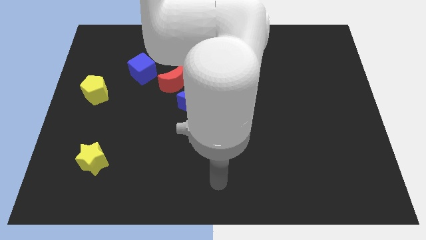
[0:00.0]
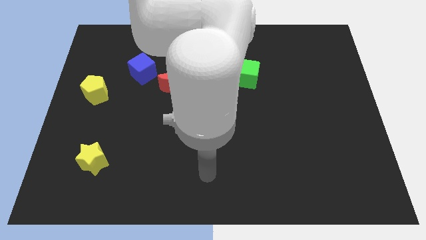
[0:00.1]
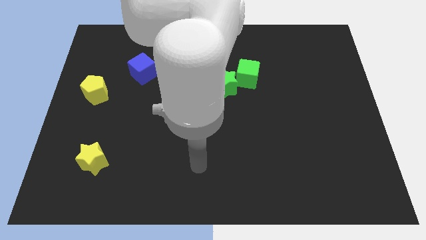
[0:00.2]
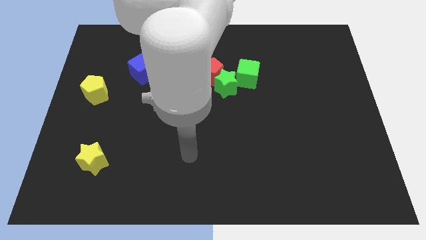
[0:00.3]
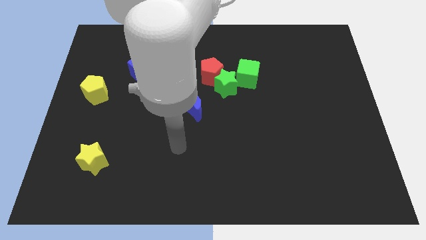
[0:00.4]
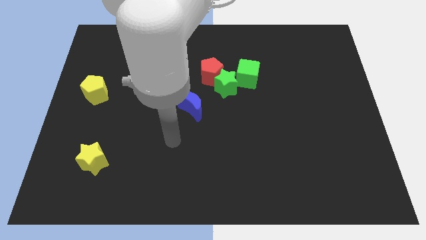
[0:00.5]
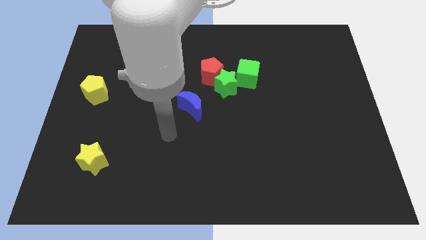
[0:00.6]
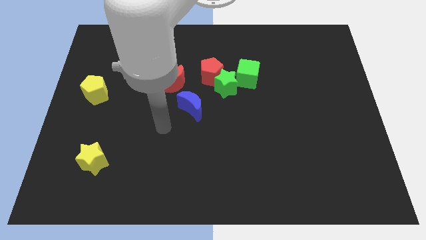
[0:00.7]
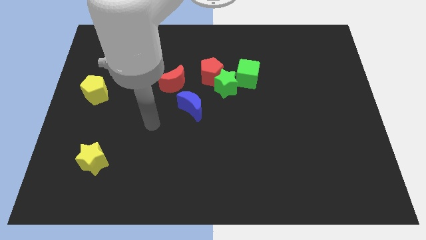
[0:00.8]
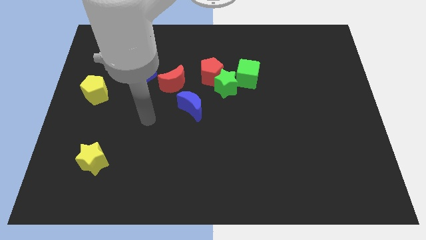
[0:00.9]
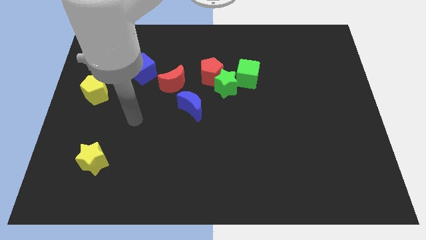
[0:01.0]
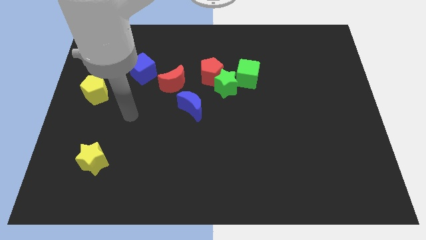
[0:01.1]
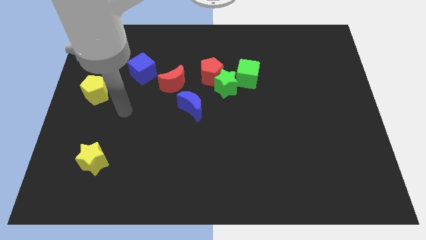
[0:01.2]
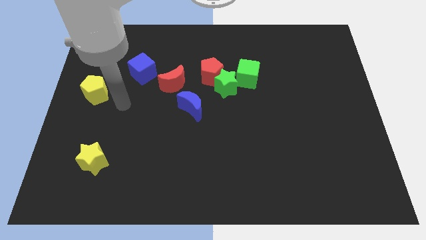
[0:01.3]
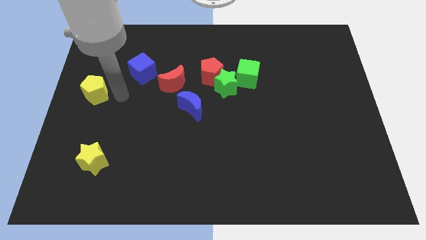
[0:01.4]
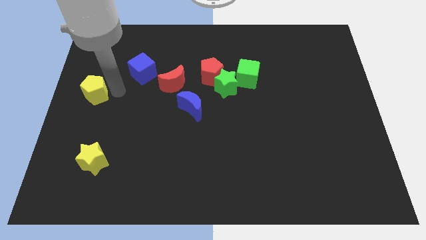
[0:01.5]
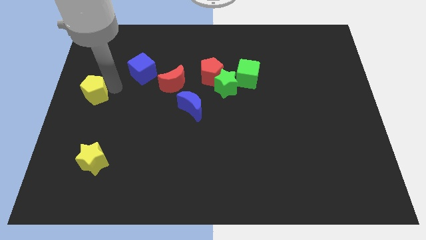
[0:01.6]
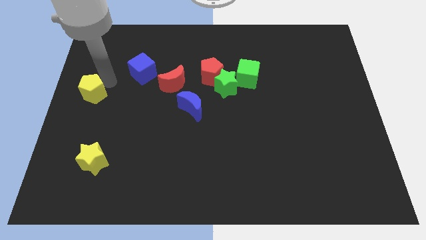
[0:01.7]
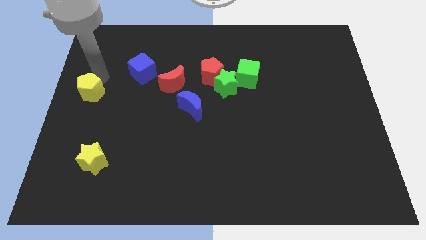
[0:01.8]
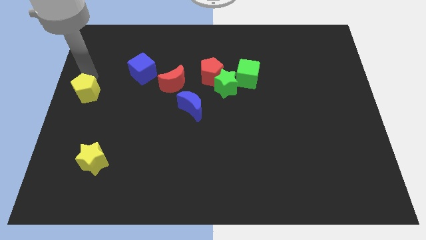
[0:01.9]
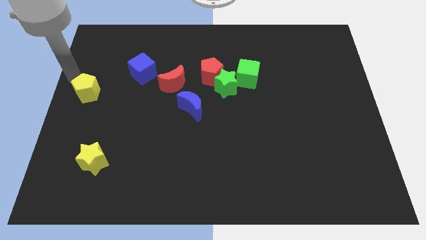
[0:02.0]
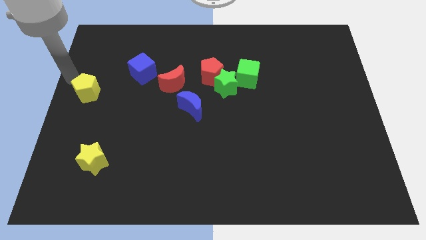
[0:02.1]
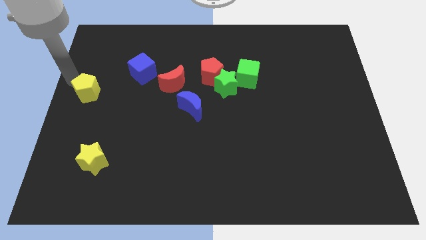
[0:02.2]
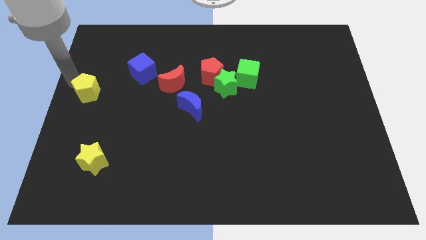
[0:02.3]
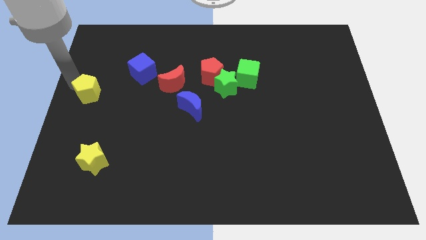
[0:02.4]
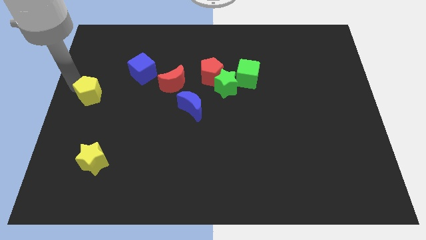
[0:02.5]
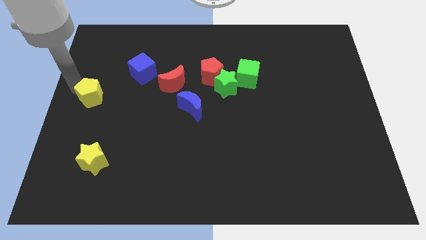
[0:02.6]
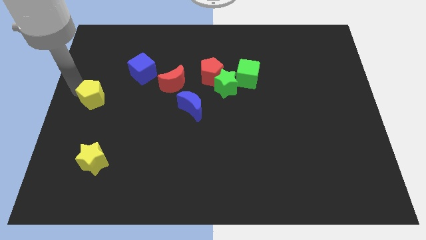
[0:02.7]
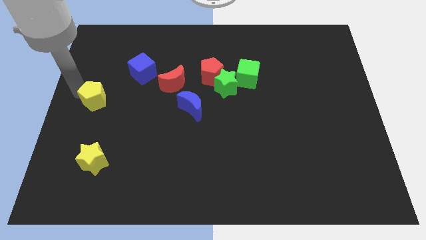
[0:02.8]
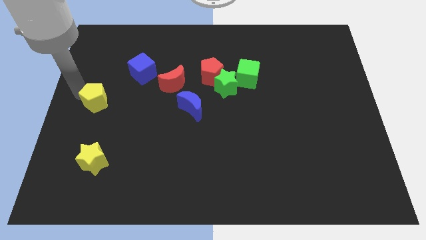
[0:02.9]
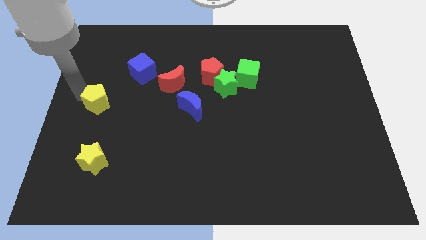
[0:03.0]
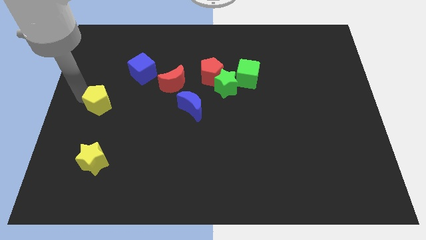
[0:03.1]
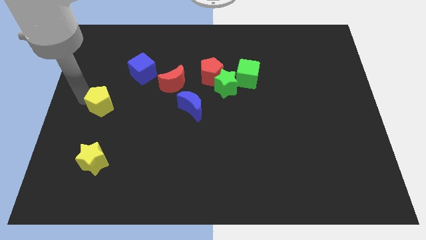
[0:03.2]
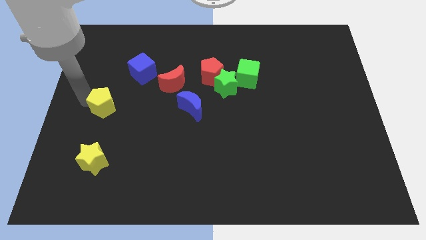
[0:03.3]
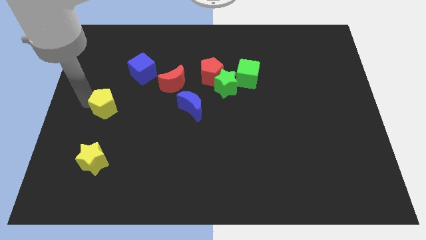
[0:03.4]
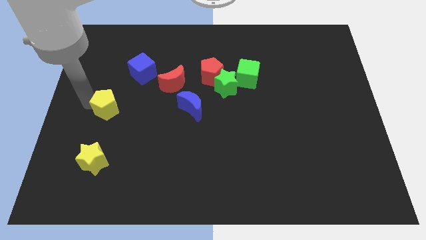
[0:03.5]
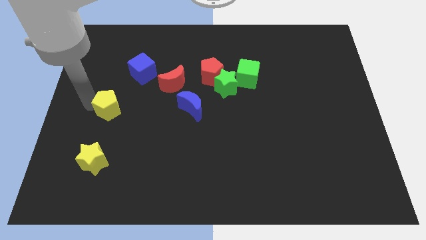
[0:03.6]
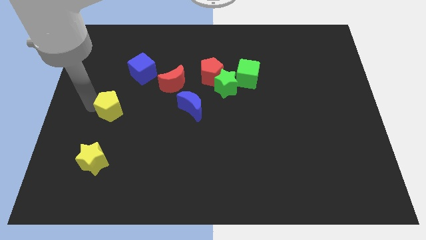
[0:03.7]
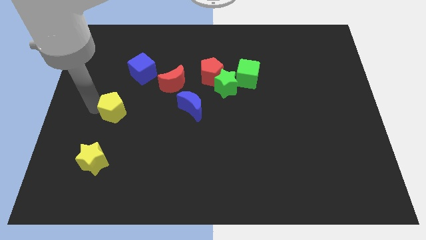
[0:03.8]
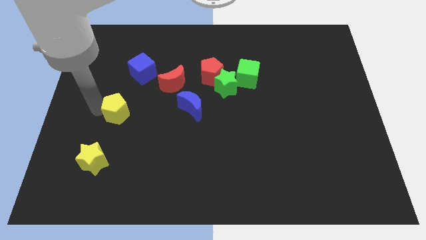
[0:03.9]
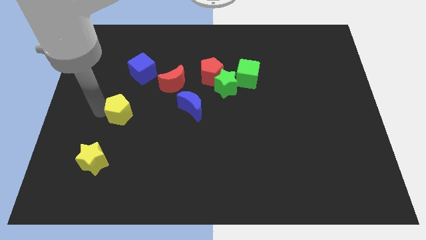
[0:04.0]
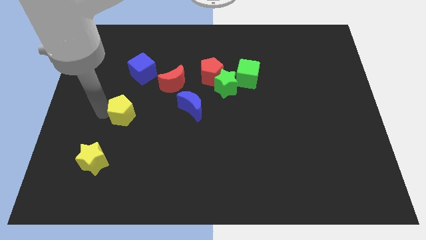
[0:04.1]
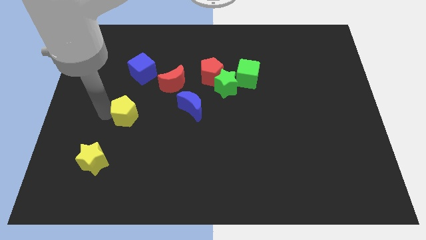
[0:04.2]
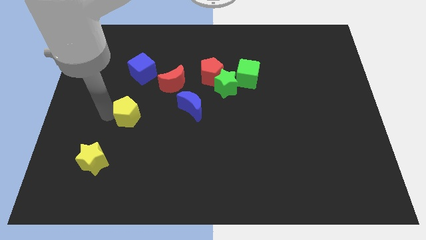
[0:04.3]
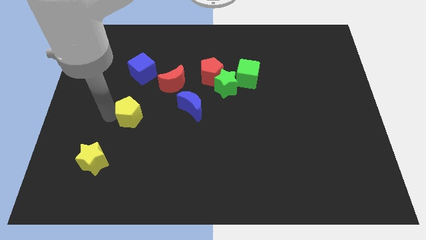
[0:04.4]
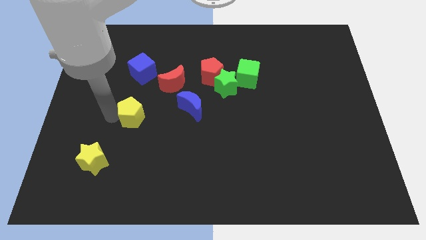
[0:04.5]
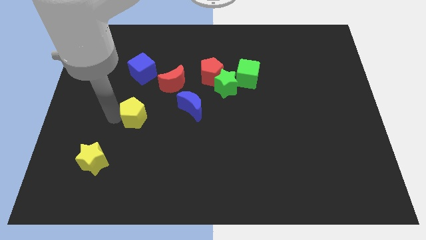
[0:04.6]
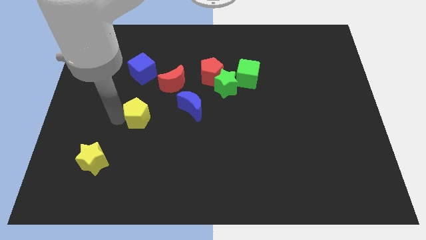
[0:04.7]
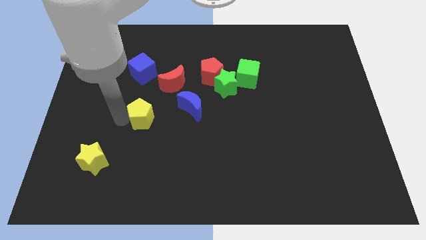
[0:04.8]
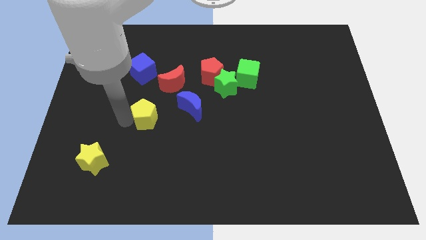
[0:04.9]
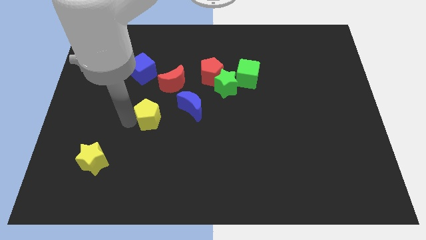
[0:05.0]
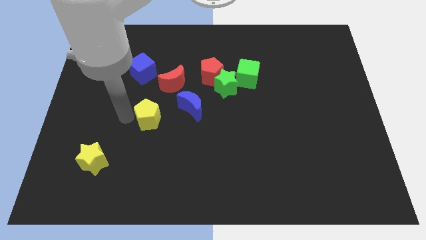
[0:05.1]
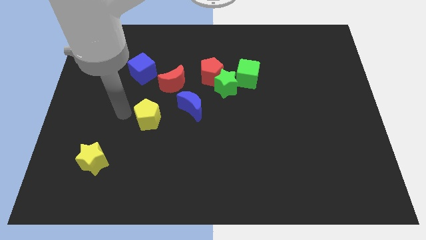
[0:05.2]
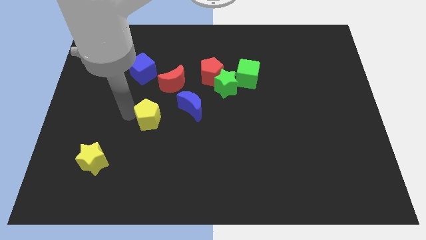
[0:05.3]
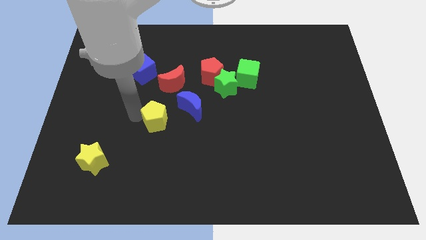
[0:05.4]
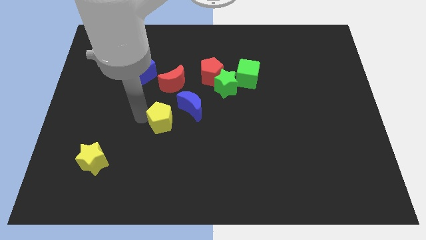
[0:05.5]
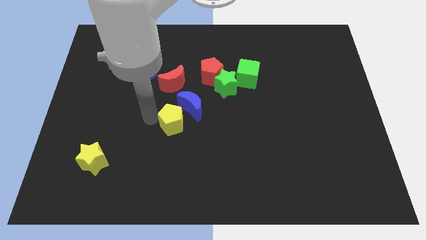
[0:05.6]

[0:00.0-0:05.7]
slide the yellow pentagon to the center of the board
